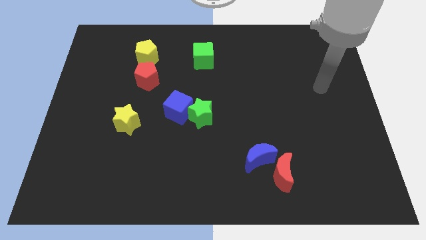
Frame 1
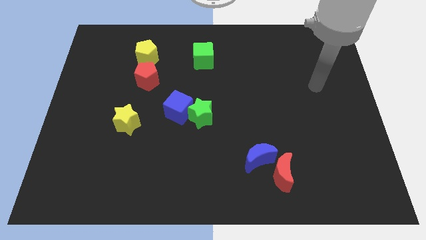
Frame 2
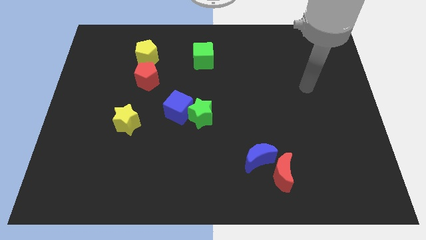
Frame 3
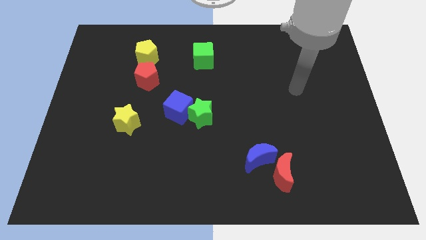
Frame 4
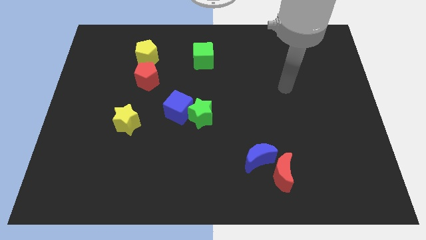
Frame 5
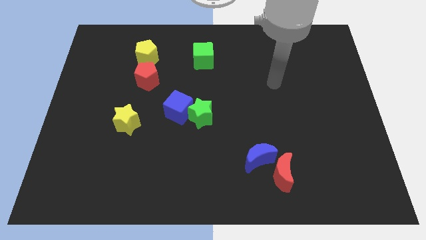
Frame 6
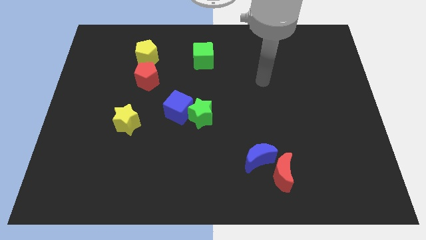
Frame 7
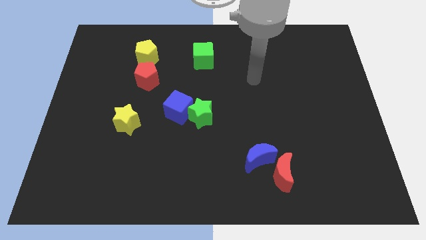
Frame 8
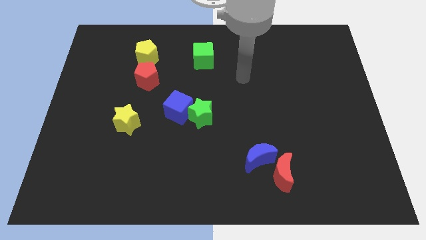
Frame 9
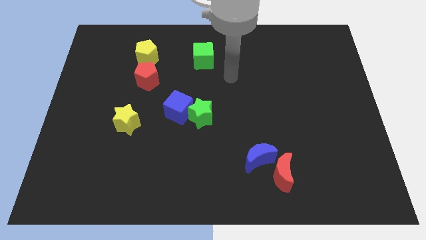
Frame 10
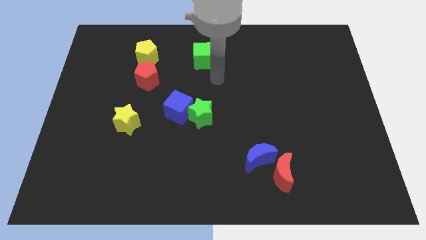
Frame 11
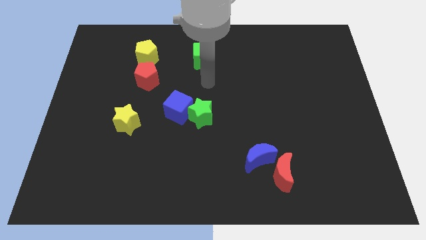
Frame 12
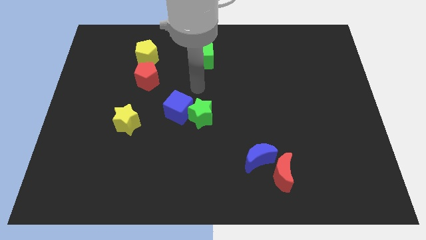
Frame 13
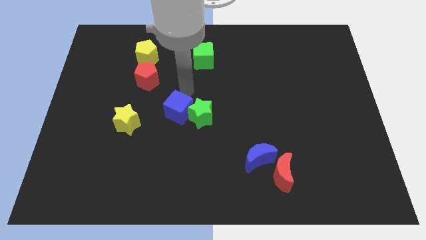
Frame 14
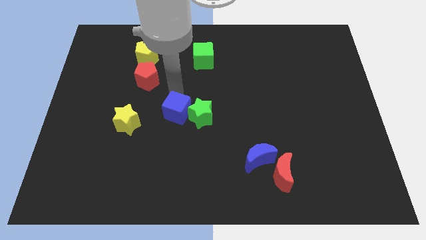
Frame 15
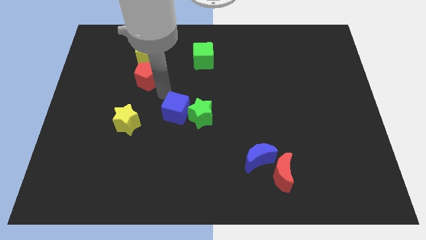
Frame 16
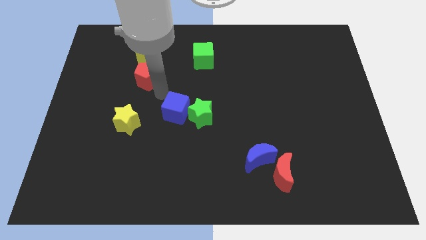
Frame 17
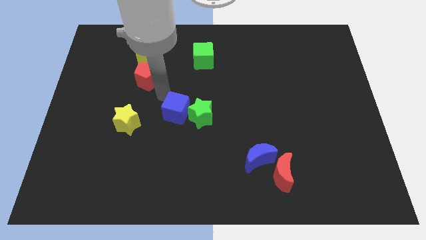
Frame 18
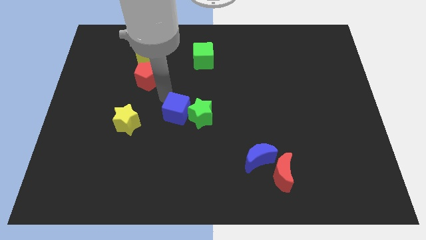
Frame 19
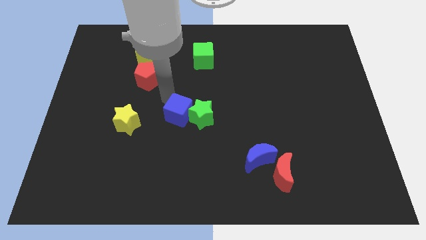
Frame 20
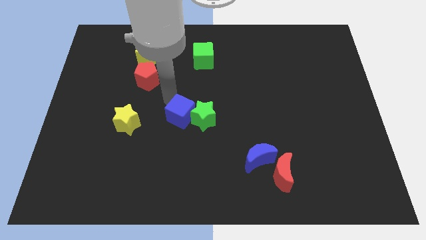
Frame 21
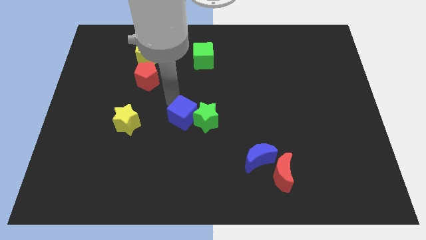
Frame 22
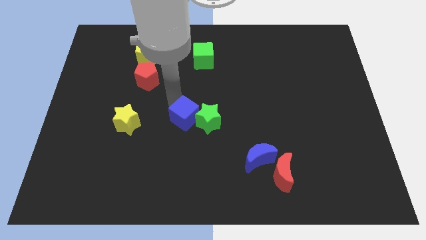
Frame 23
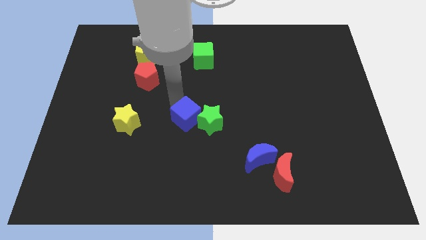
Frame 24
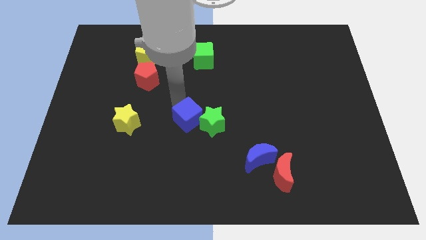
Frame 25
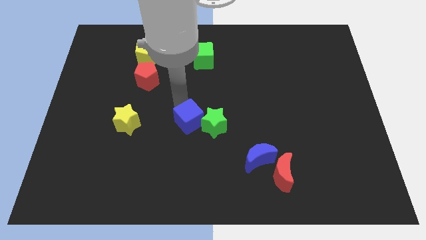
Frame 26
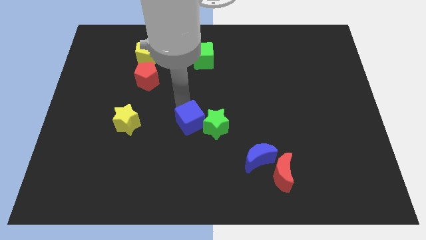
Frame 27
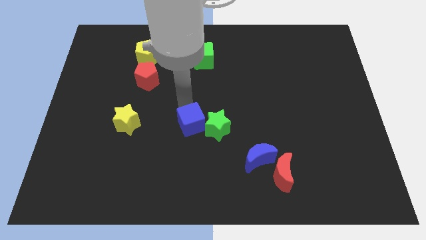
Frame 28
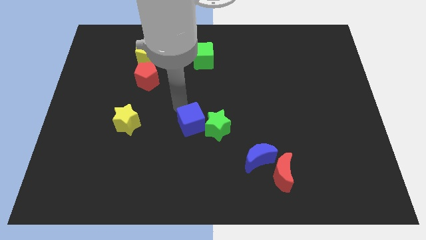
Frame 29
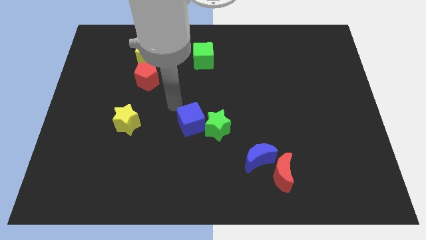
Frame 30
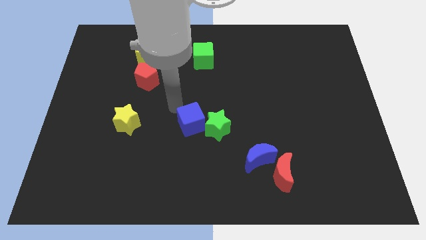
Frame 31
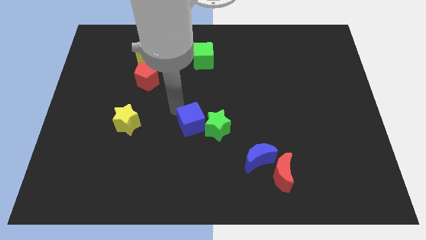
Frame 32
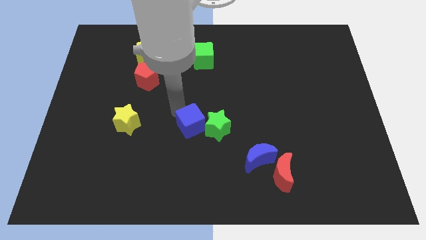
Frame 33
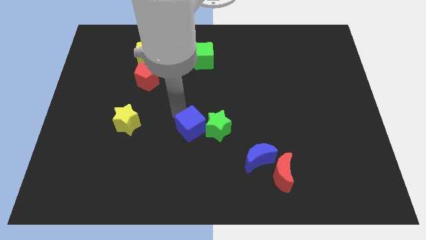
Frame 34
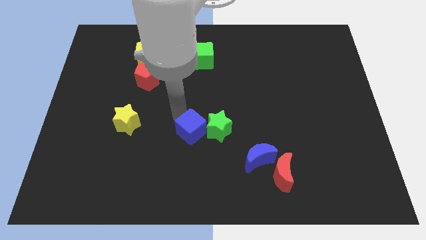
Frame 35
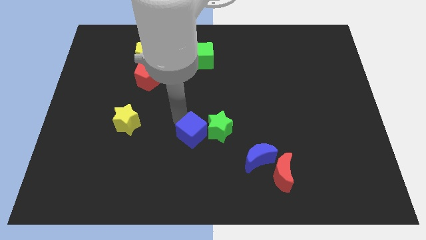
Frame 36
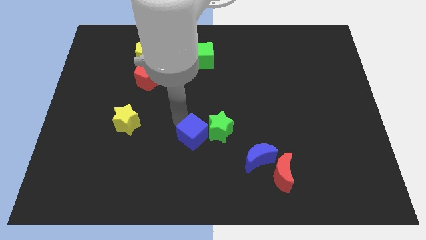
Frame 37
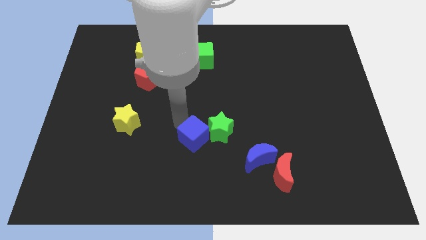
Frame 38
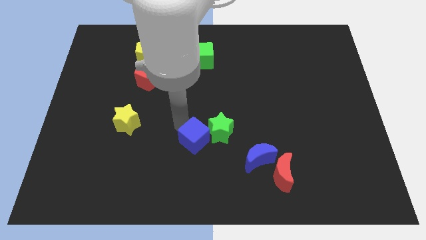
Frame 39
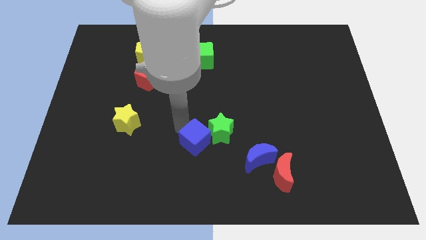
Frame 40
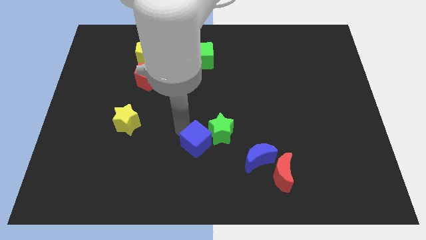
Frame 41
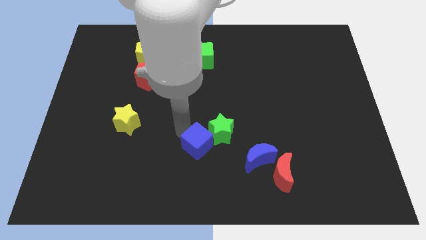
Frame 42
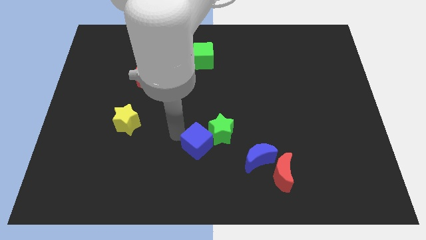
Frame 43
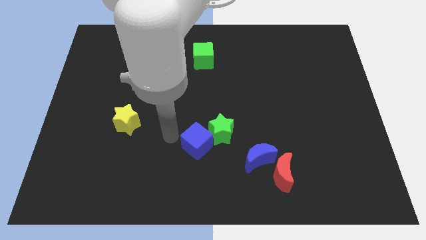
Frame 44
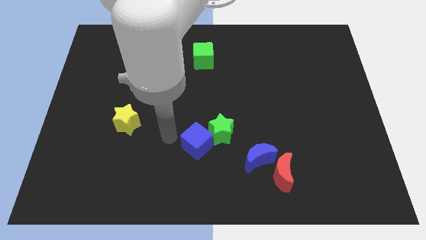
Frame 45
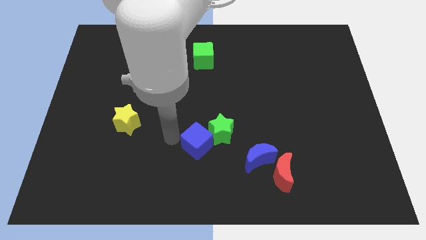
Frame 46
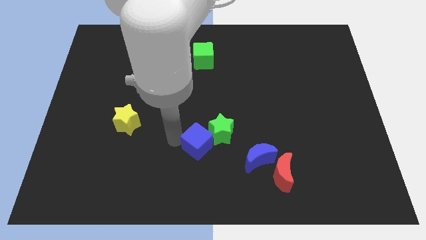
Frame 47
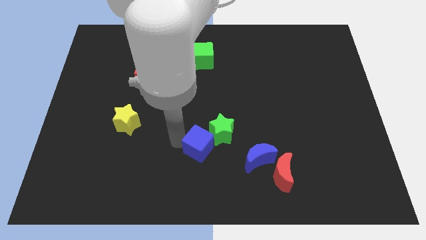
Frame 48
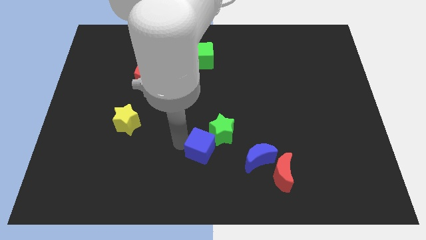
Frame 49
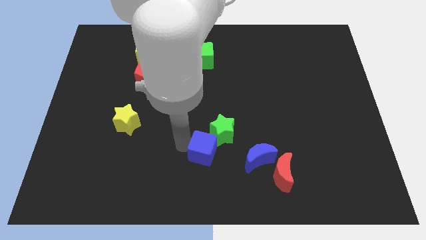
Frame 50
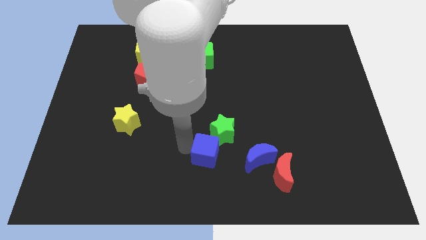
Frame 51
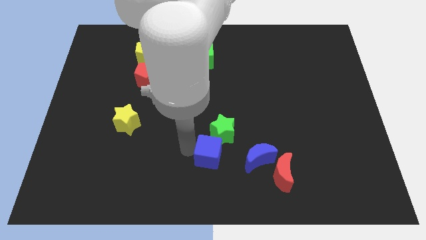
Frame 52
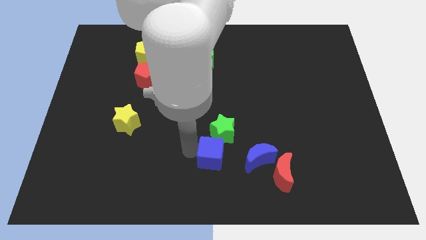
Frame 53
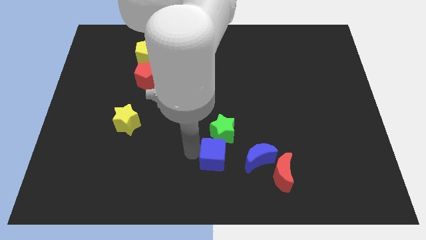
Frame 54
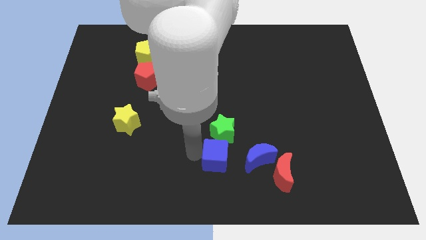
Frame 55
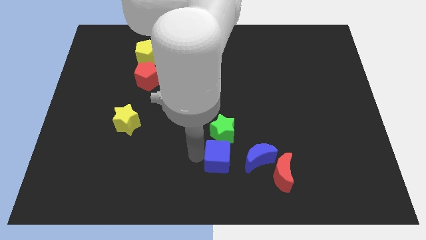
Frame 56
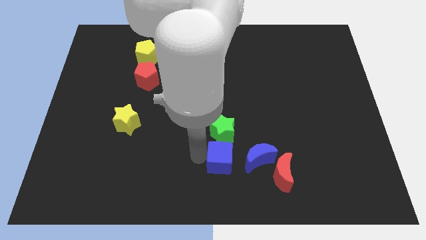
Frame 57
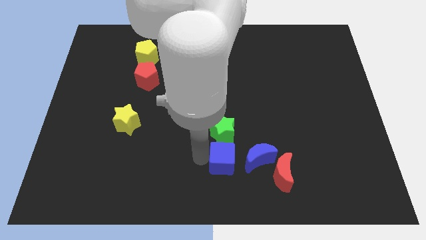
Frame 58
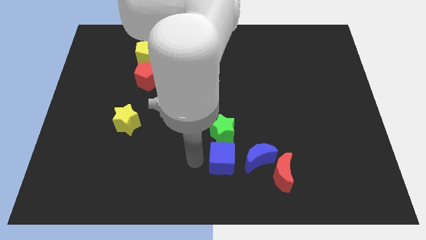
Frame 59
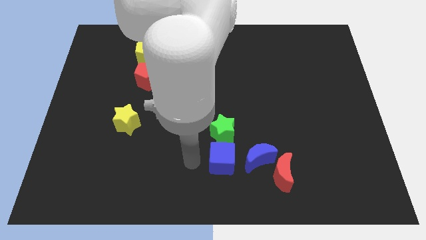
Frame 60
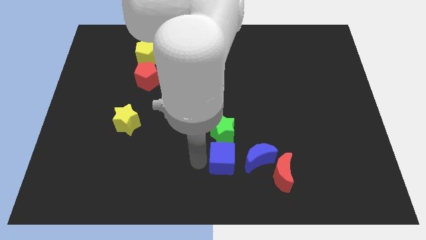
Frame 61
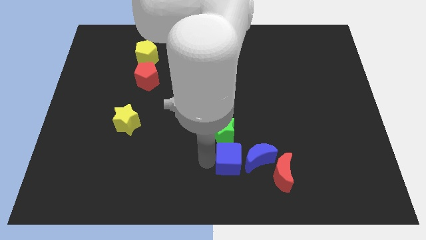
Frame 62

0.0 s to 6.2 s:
put the blue cube to the blue moon

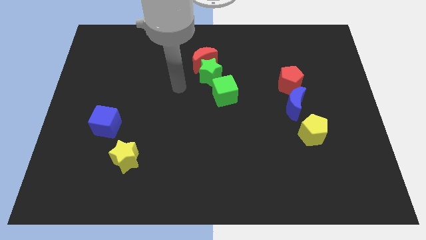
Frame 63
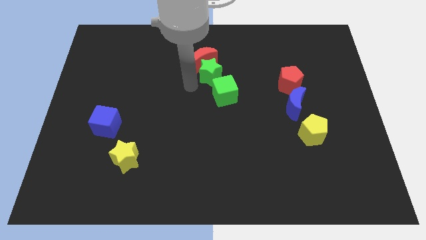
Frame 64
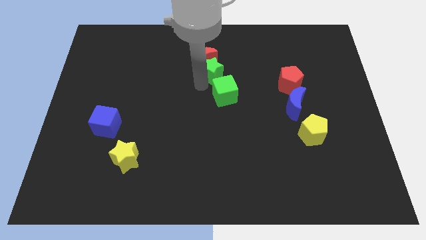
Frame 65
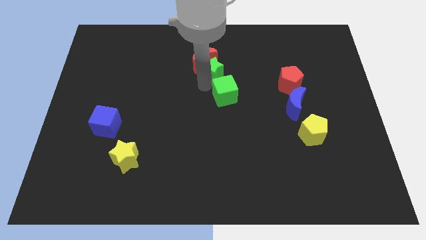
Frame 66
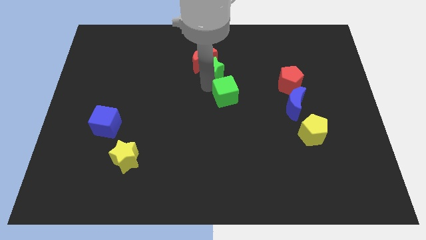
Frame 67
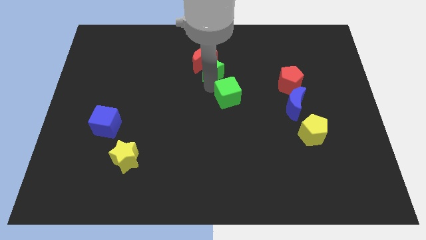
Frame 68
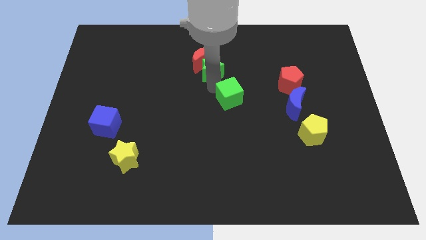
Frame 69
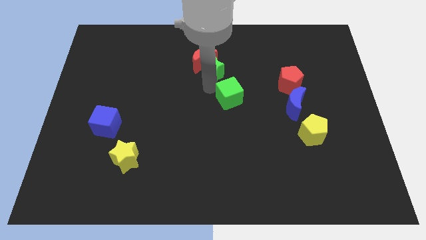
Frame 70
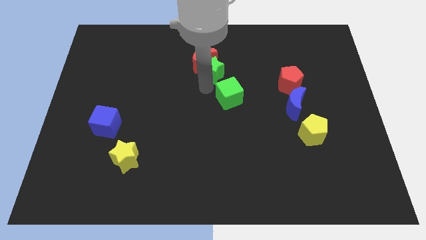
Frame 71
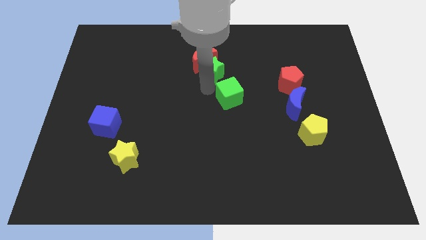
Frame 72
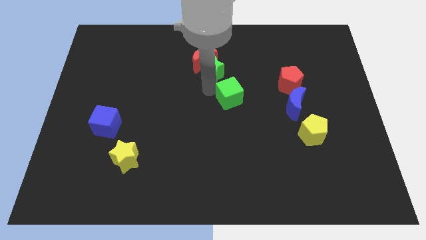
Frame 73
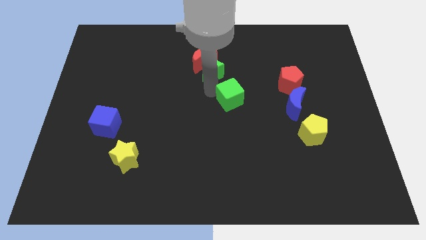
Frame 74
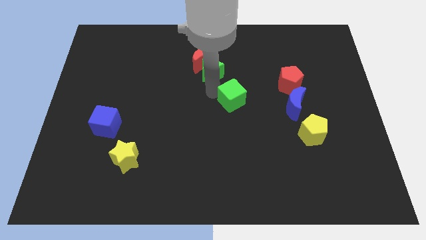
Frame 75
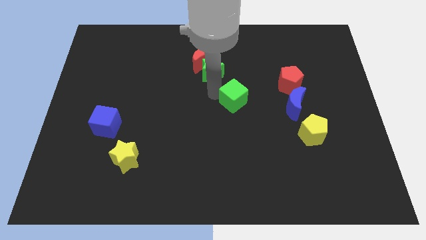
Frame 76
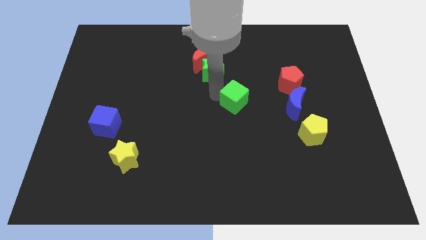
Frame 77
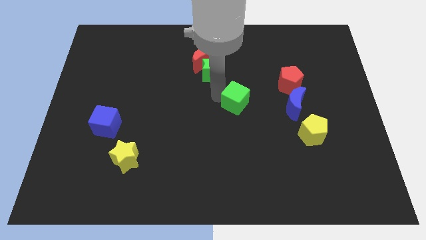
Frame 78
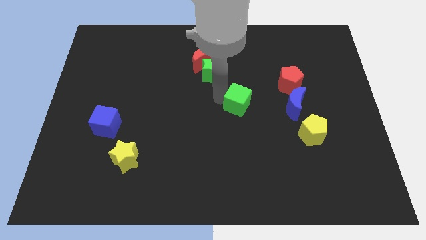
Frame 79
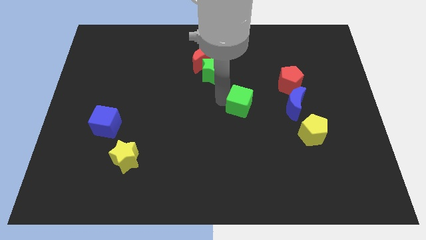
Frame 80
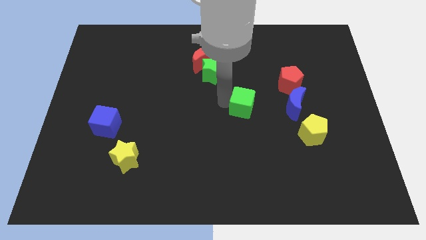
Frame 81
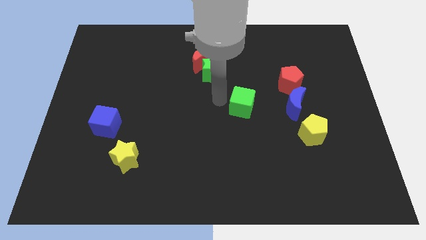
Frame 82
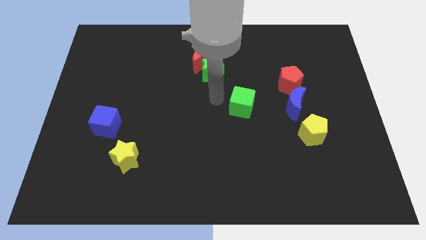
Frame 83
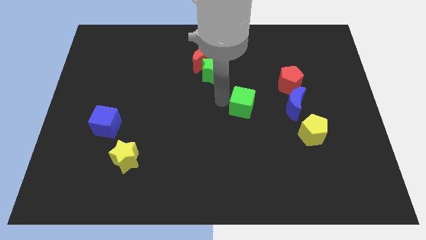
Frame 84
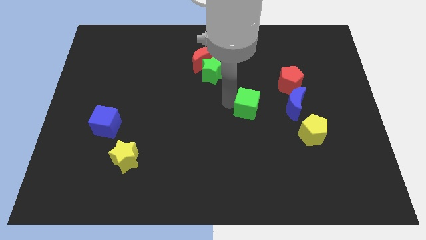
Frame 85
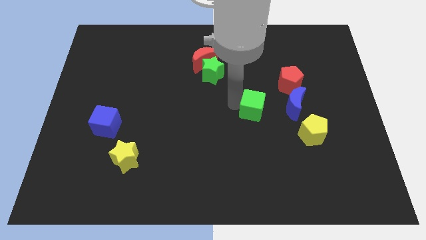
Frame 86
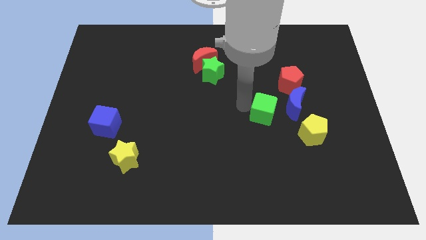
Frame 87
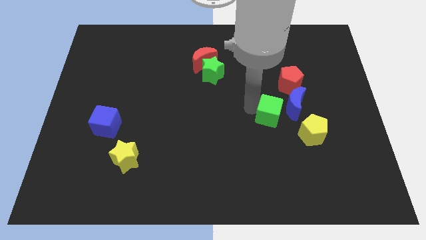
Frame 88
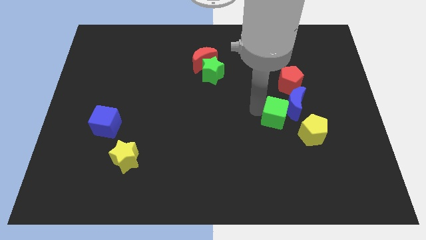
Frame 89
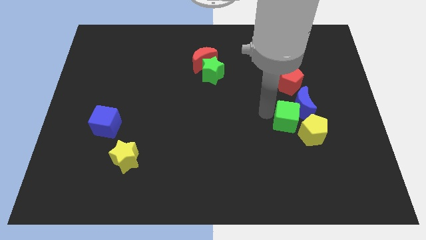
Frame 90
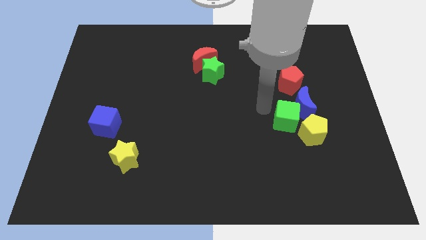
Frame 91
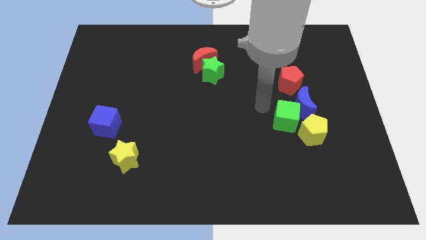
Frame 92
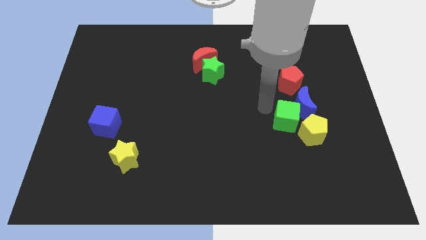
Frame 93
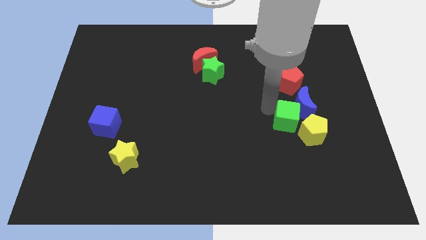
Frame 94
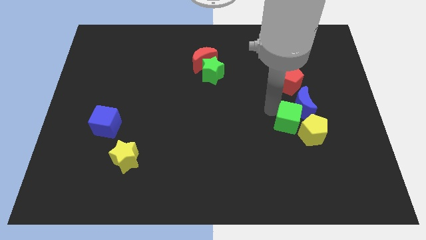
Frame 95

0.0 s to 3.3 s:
move the green cube close to the yellow pentagon
